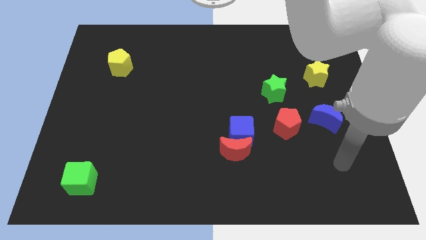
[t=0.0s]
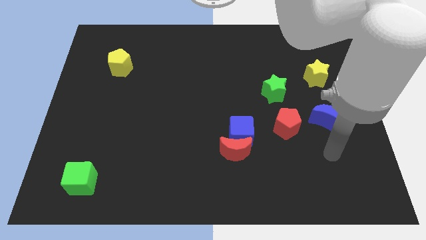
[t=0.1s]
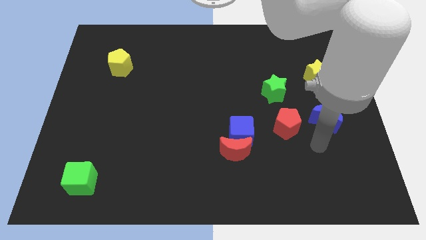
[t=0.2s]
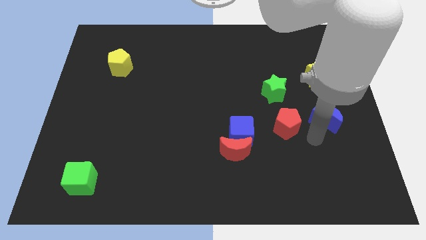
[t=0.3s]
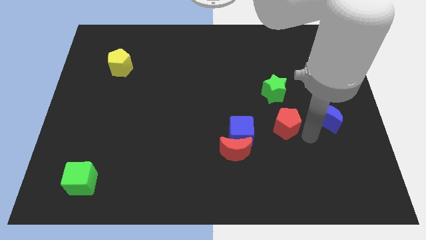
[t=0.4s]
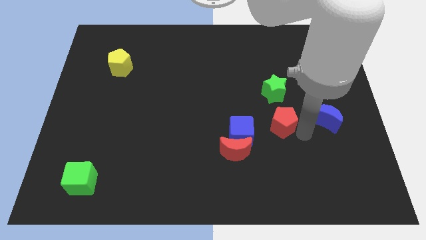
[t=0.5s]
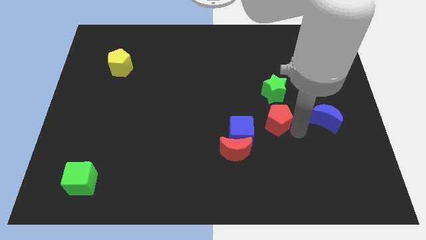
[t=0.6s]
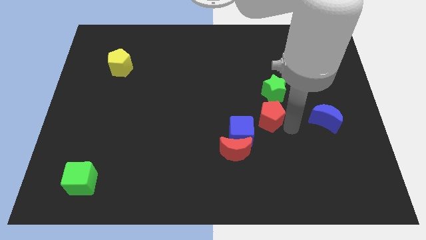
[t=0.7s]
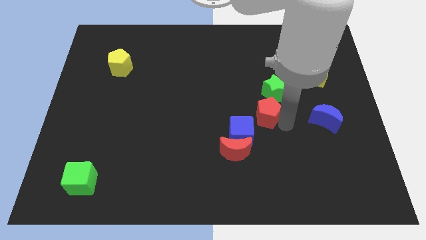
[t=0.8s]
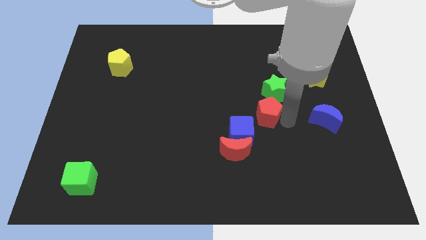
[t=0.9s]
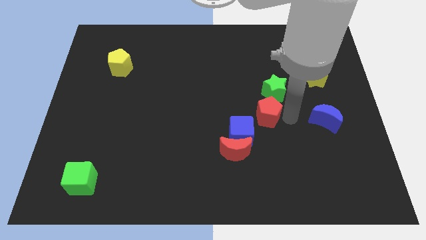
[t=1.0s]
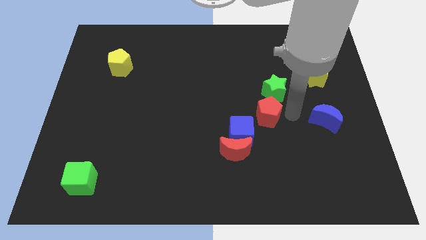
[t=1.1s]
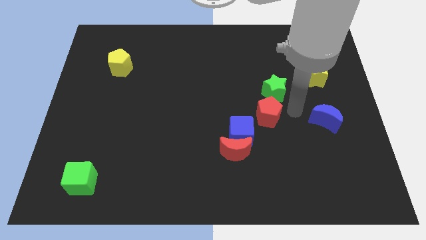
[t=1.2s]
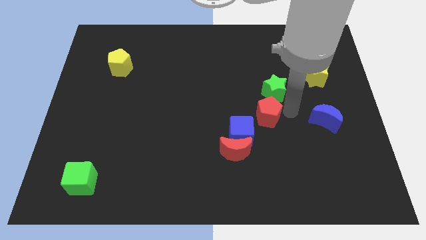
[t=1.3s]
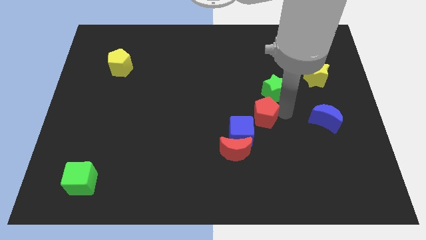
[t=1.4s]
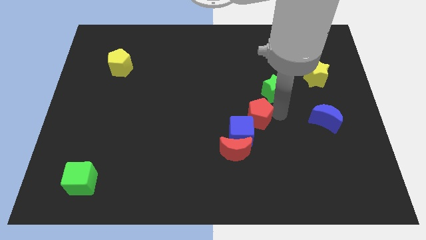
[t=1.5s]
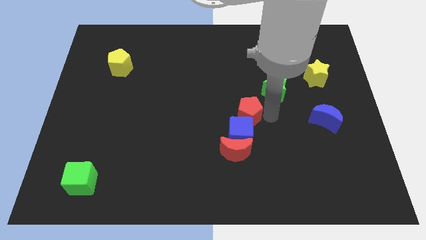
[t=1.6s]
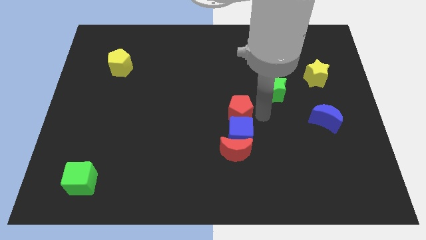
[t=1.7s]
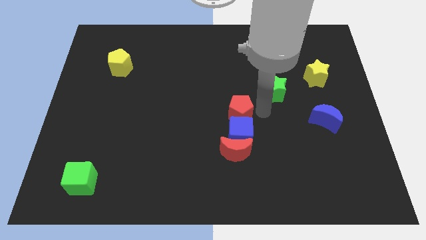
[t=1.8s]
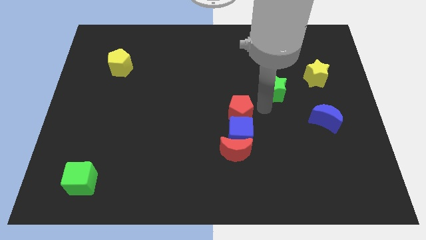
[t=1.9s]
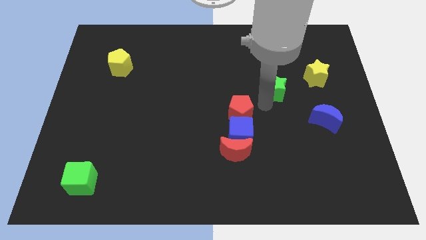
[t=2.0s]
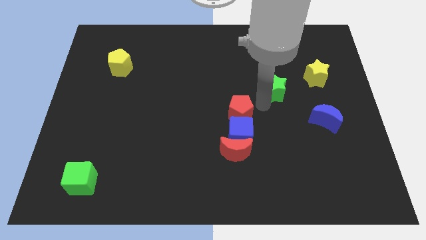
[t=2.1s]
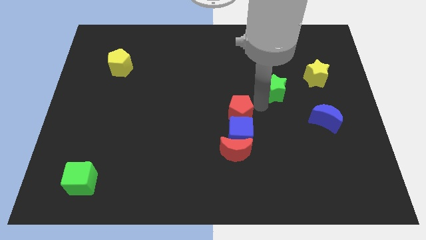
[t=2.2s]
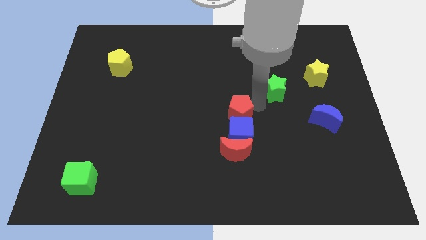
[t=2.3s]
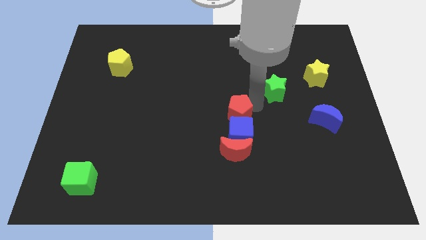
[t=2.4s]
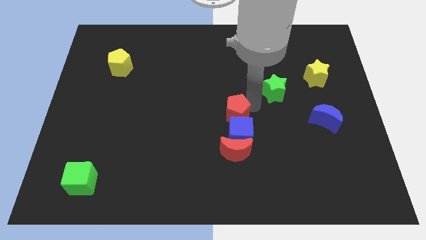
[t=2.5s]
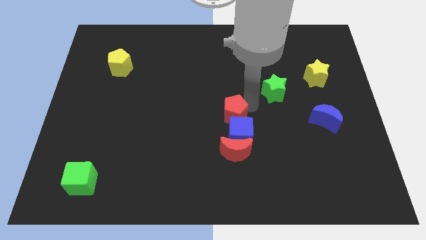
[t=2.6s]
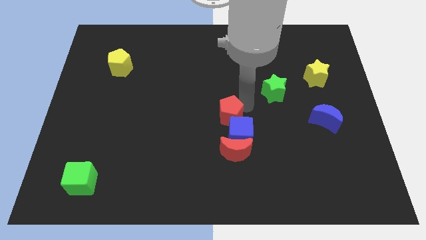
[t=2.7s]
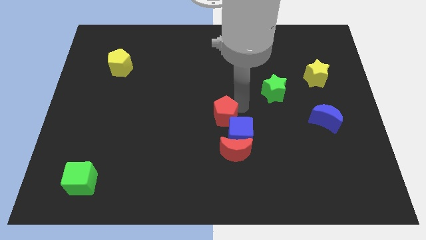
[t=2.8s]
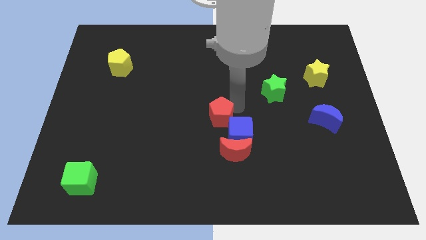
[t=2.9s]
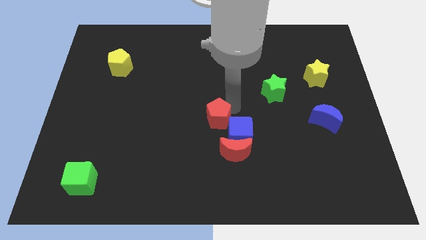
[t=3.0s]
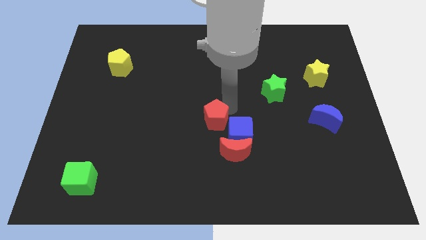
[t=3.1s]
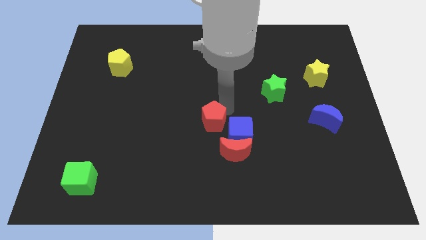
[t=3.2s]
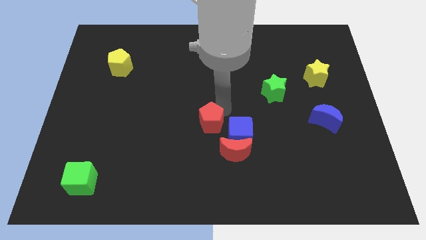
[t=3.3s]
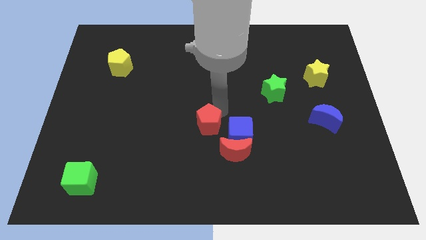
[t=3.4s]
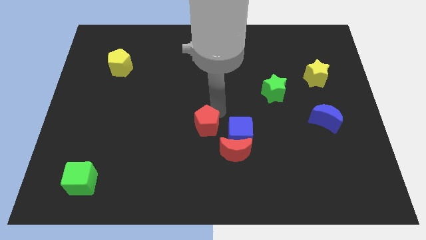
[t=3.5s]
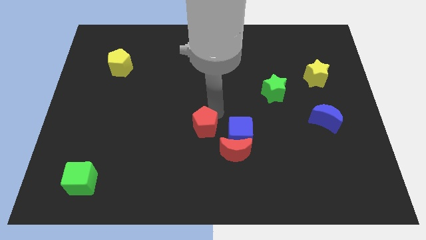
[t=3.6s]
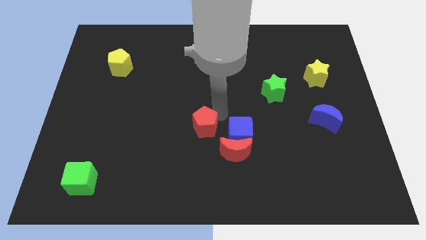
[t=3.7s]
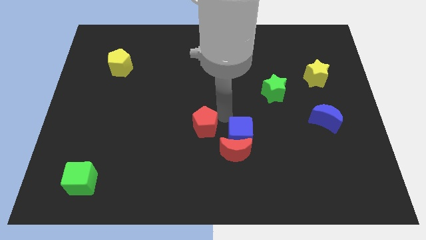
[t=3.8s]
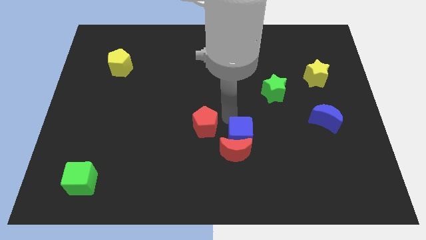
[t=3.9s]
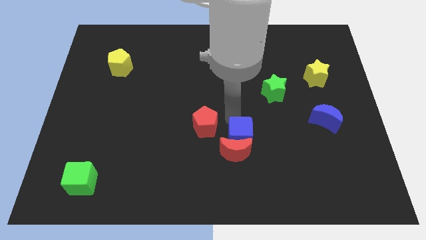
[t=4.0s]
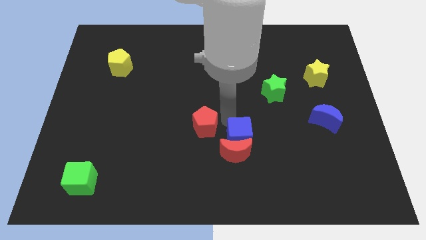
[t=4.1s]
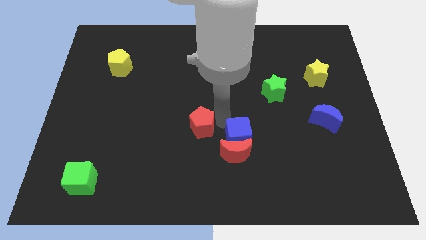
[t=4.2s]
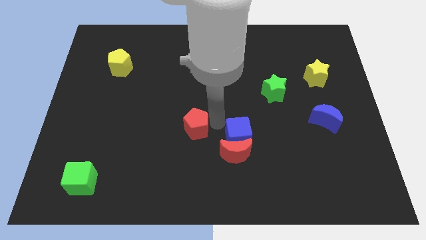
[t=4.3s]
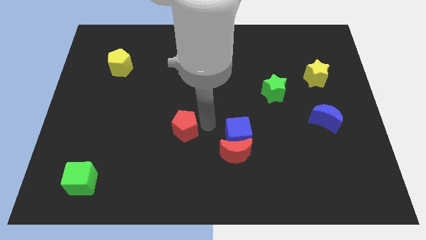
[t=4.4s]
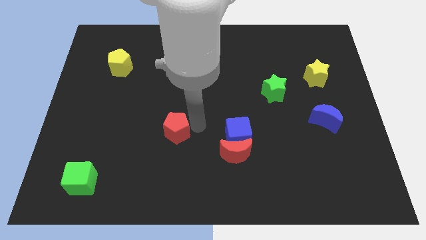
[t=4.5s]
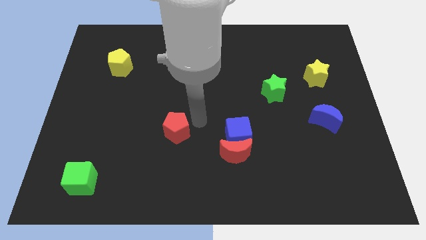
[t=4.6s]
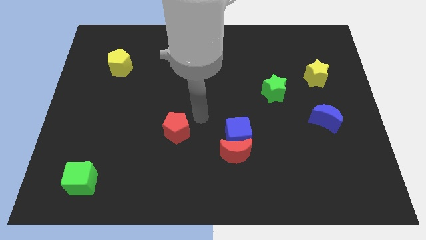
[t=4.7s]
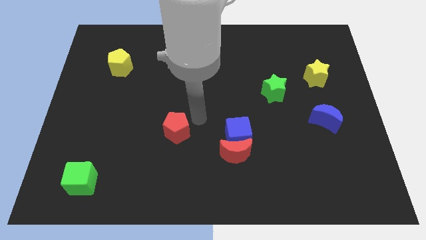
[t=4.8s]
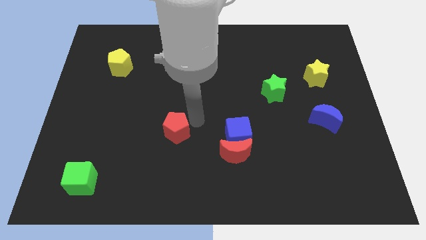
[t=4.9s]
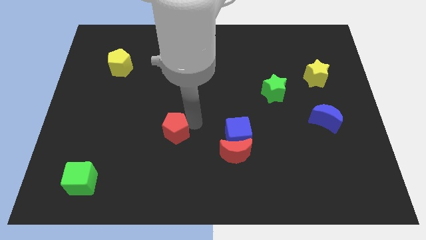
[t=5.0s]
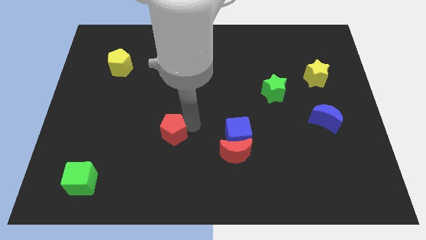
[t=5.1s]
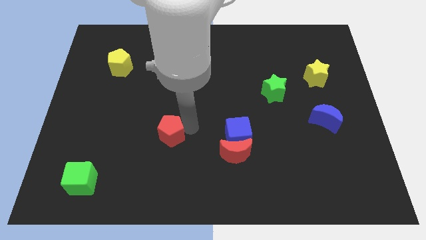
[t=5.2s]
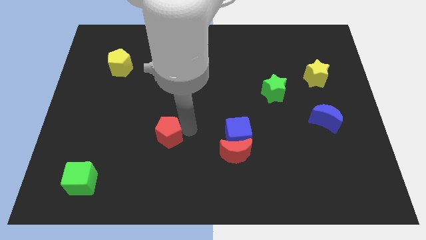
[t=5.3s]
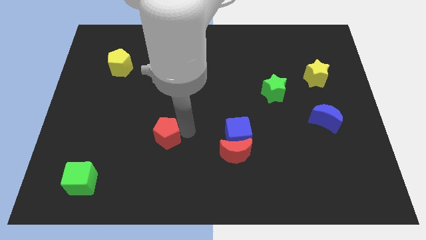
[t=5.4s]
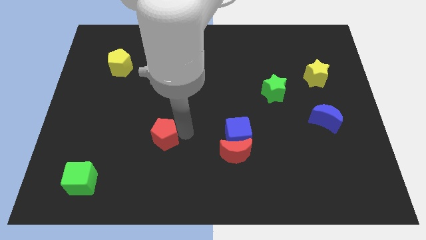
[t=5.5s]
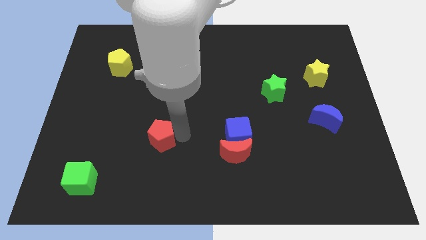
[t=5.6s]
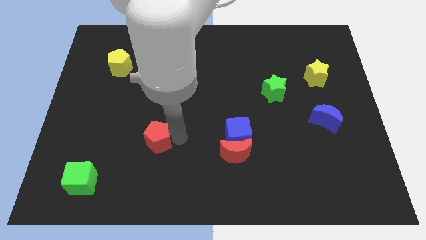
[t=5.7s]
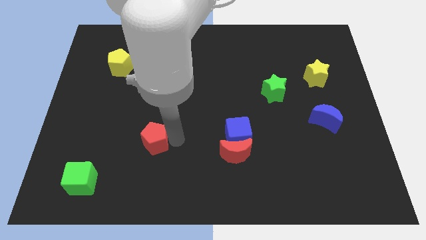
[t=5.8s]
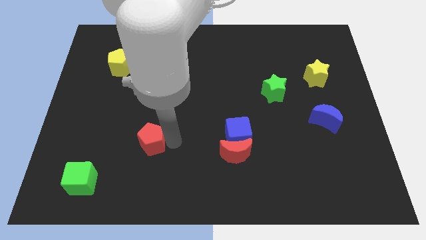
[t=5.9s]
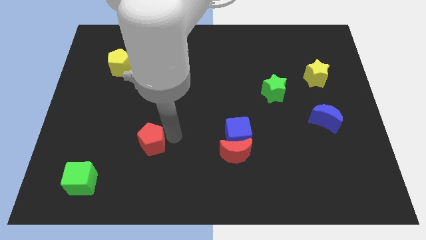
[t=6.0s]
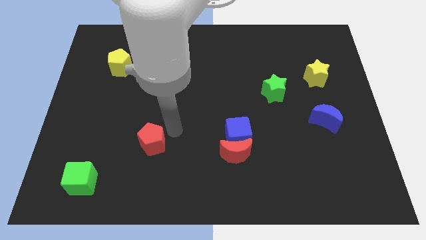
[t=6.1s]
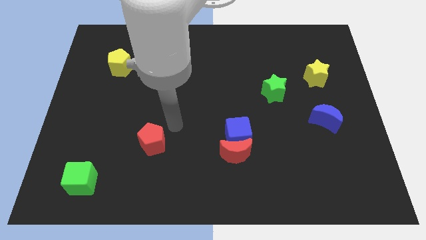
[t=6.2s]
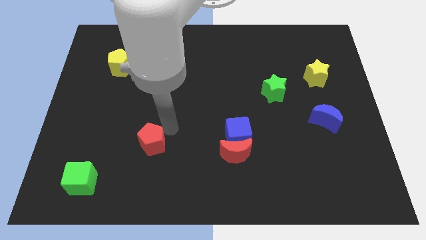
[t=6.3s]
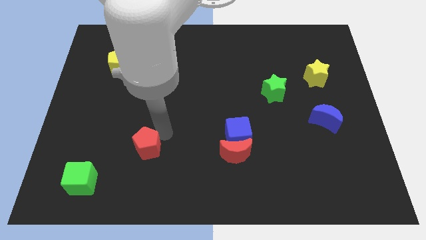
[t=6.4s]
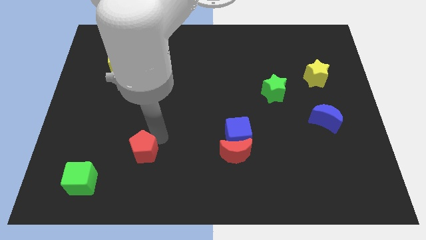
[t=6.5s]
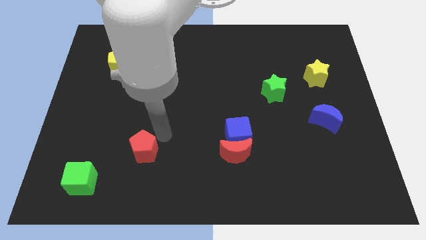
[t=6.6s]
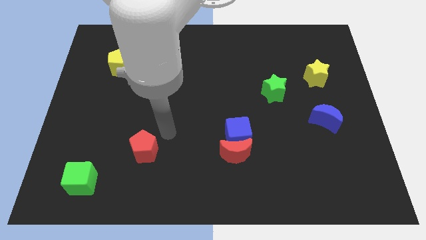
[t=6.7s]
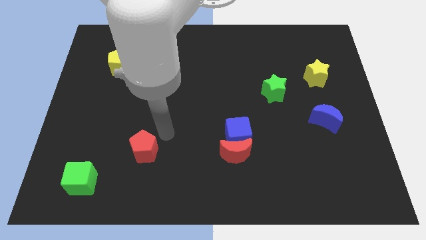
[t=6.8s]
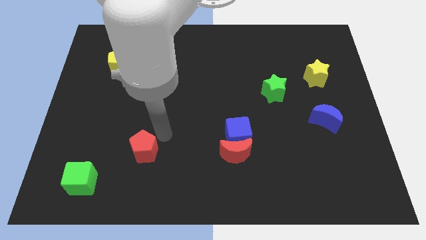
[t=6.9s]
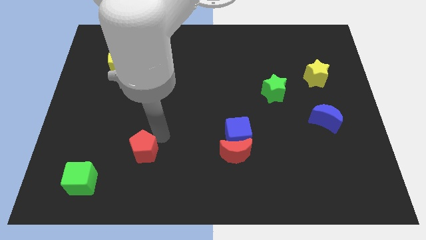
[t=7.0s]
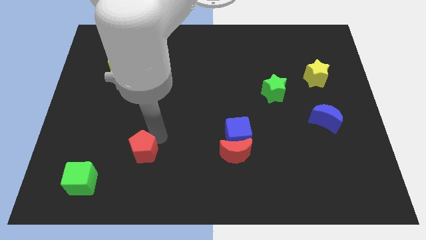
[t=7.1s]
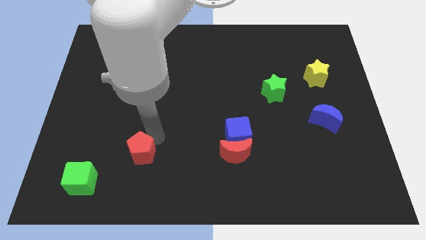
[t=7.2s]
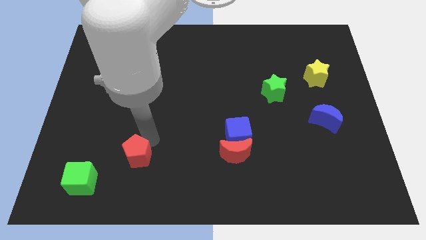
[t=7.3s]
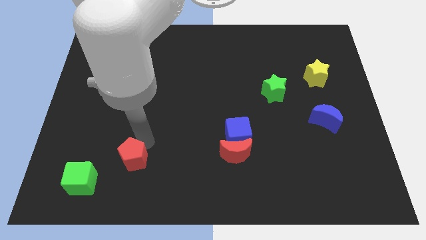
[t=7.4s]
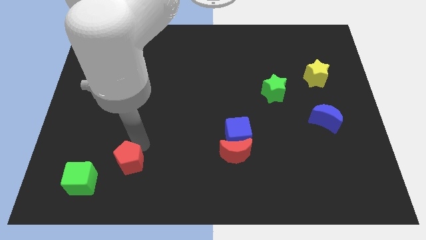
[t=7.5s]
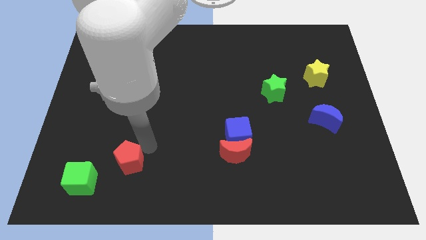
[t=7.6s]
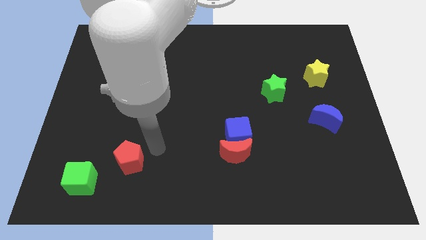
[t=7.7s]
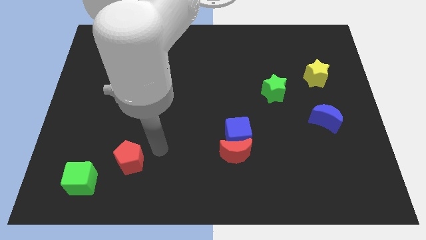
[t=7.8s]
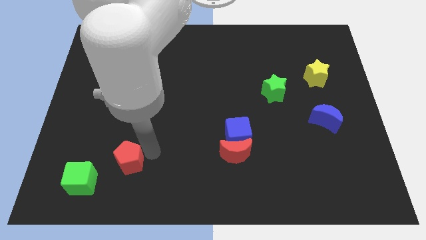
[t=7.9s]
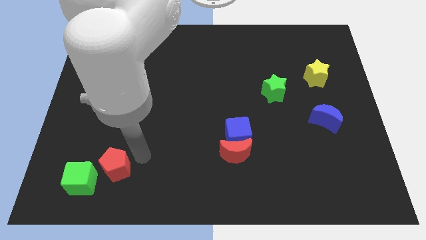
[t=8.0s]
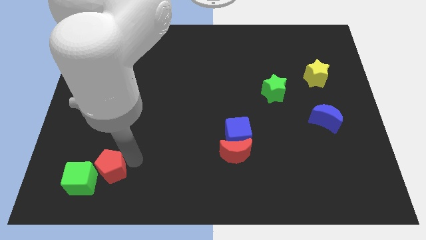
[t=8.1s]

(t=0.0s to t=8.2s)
push the red pentagon close to the green cube
